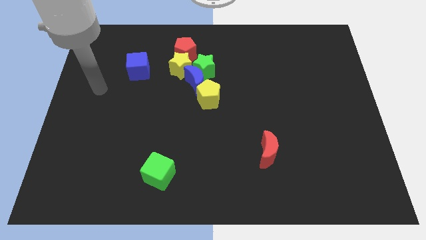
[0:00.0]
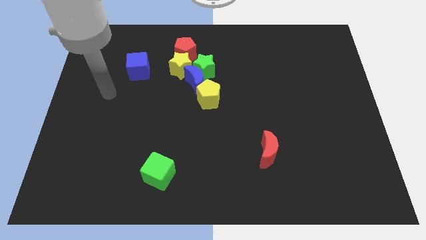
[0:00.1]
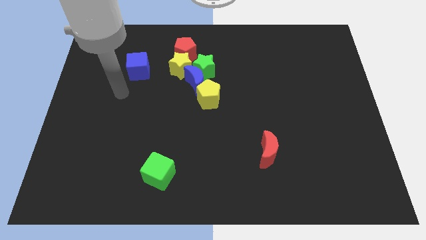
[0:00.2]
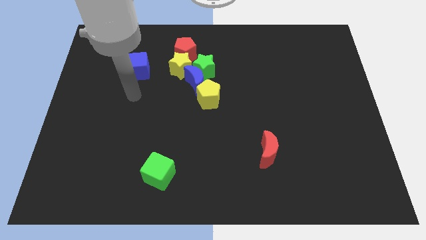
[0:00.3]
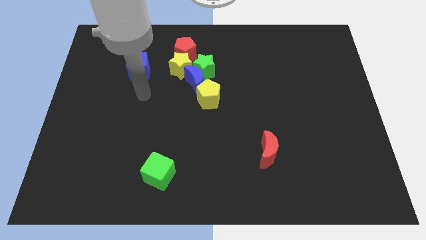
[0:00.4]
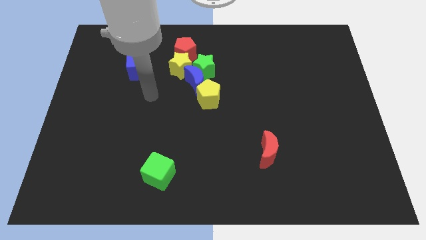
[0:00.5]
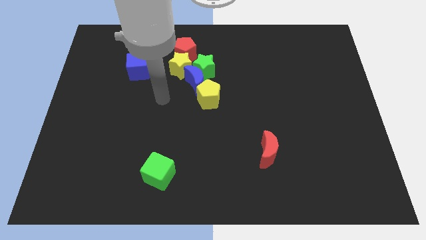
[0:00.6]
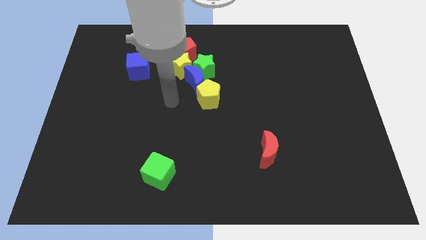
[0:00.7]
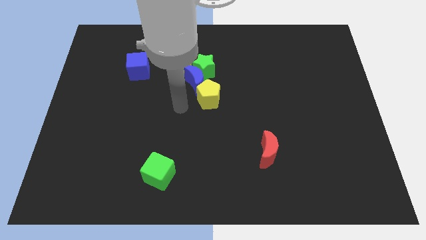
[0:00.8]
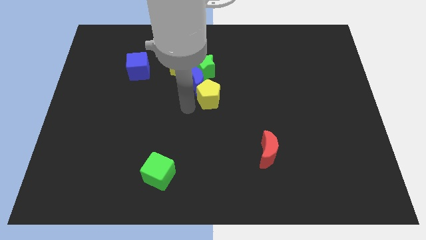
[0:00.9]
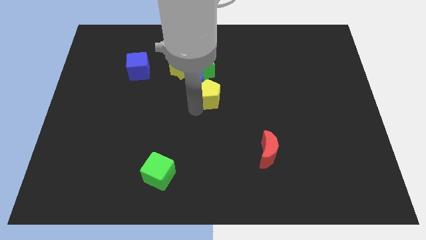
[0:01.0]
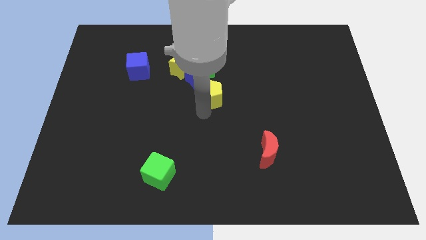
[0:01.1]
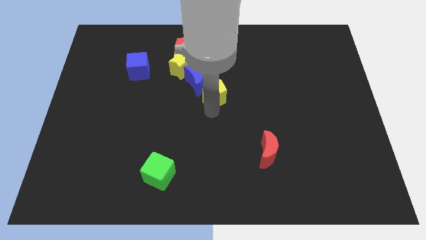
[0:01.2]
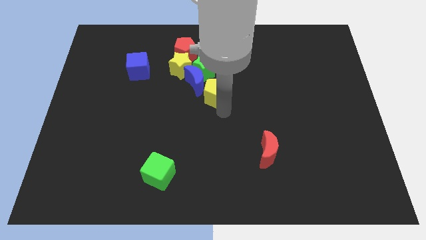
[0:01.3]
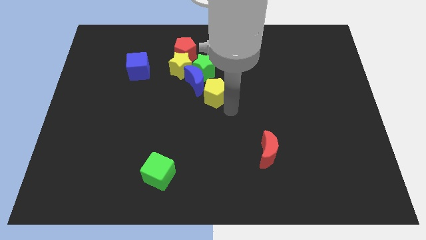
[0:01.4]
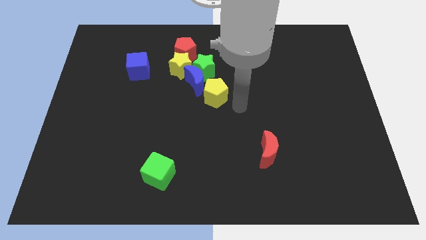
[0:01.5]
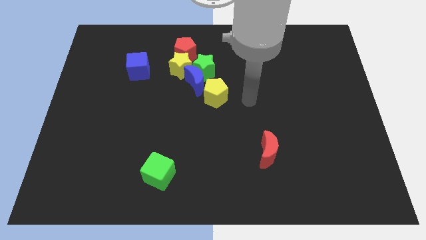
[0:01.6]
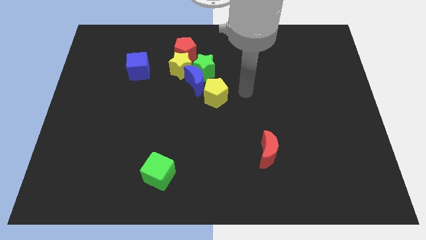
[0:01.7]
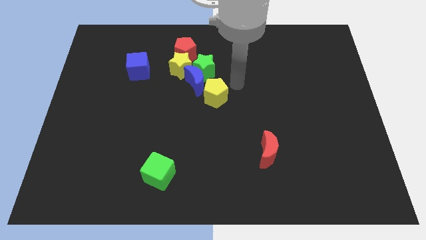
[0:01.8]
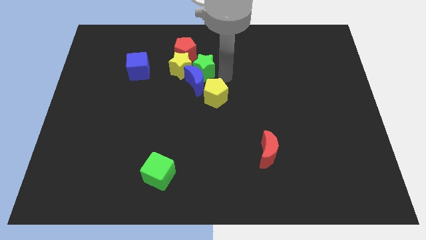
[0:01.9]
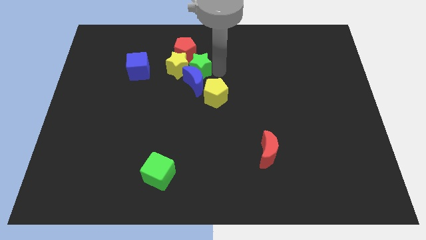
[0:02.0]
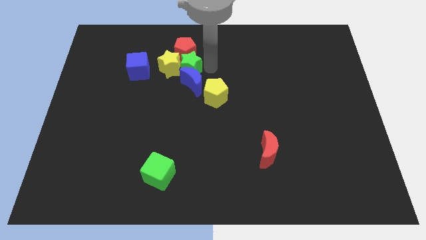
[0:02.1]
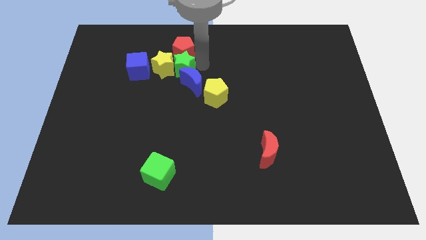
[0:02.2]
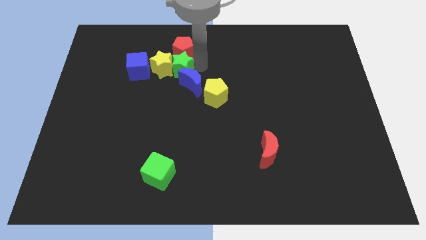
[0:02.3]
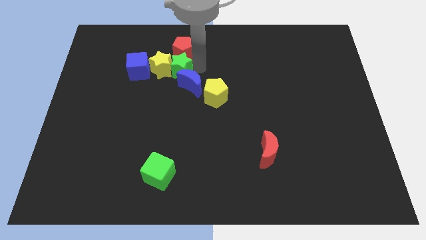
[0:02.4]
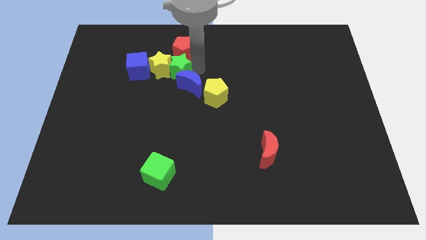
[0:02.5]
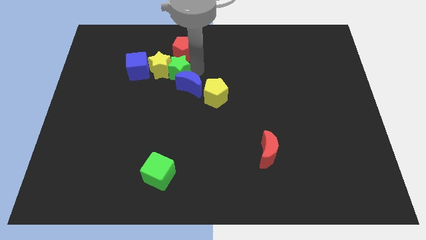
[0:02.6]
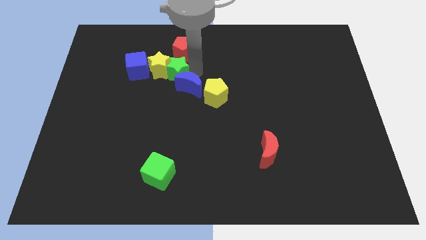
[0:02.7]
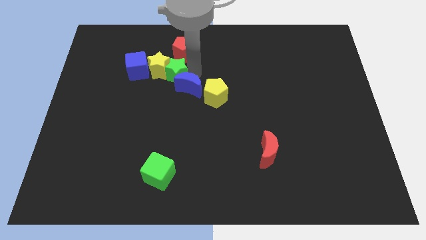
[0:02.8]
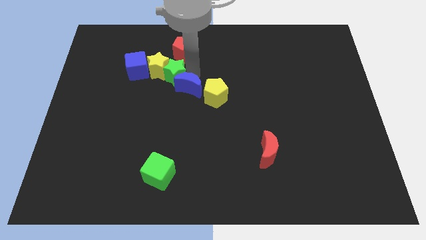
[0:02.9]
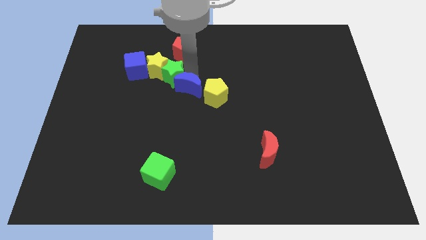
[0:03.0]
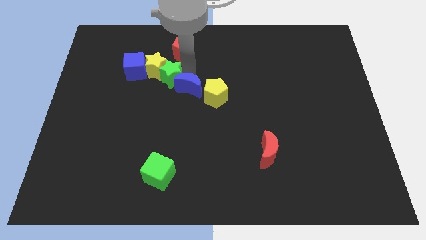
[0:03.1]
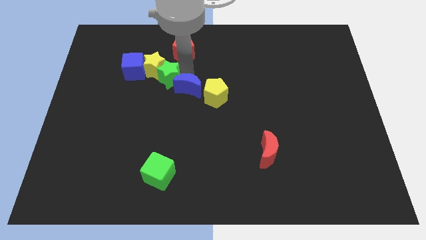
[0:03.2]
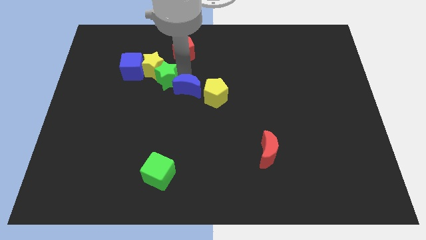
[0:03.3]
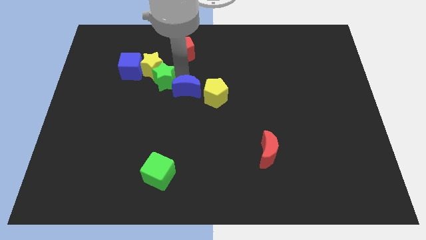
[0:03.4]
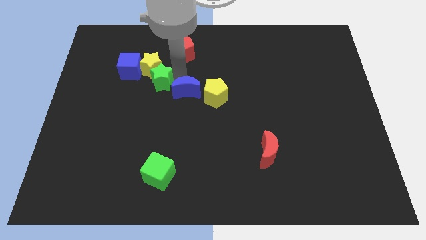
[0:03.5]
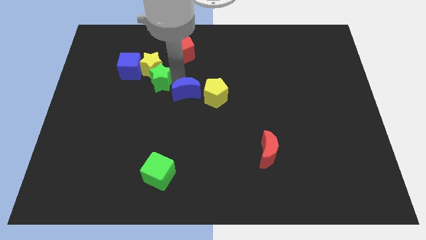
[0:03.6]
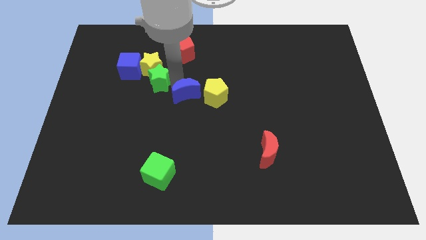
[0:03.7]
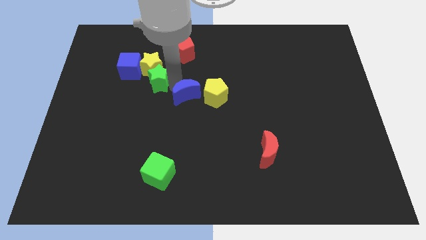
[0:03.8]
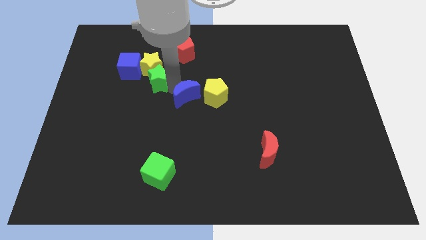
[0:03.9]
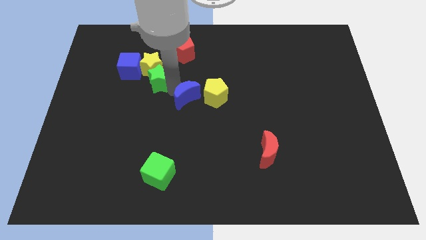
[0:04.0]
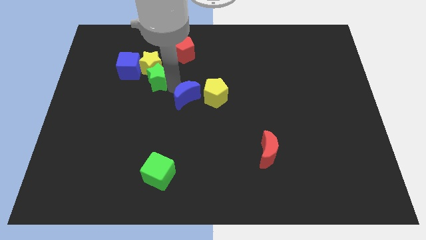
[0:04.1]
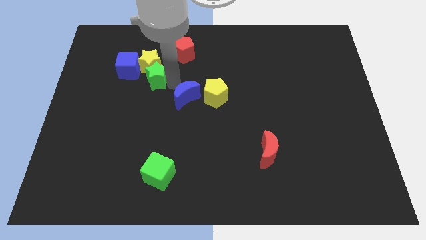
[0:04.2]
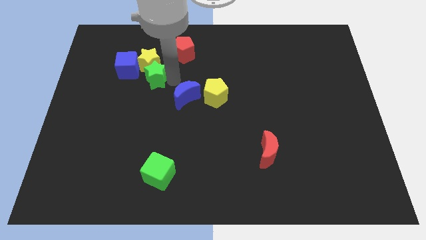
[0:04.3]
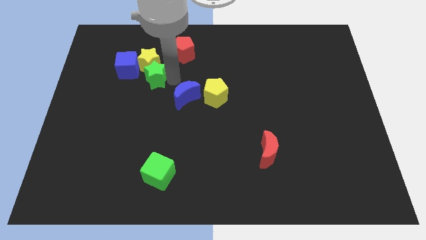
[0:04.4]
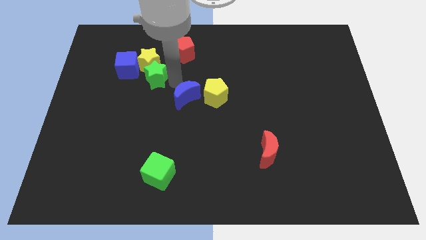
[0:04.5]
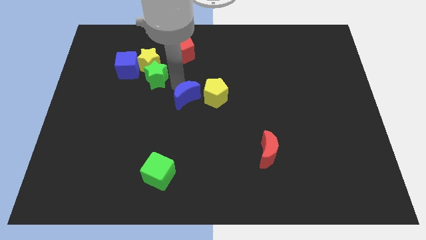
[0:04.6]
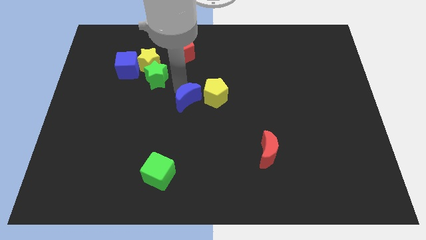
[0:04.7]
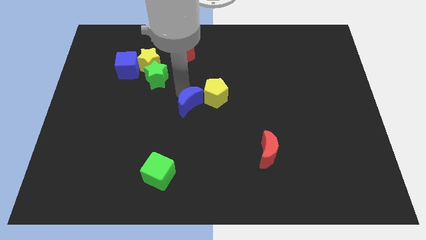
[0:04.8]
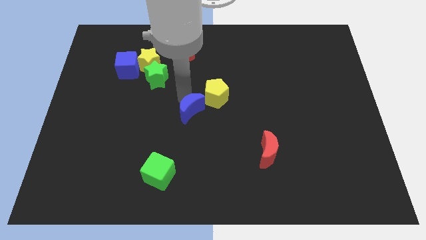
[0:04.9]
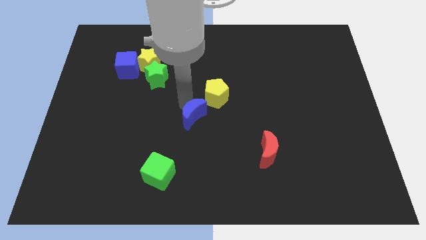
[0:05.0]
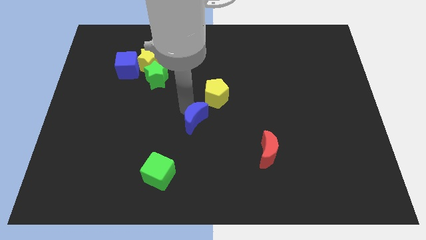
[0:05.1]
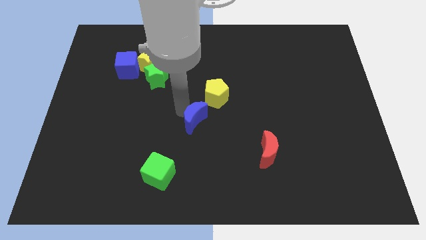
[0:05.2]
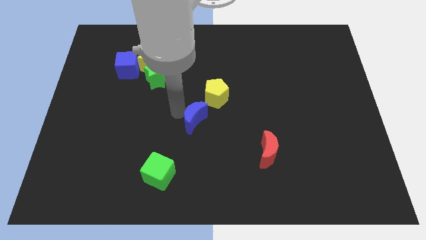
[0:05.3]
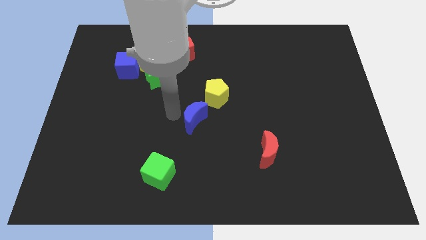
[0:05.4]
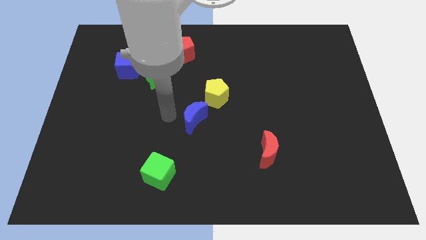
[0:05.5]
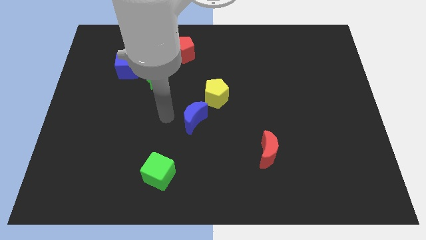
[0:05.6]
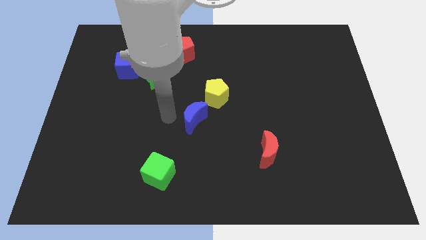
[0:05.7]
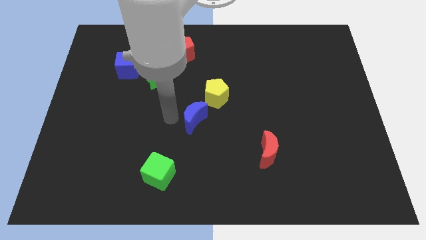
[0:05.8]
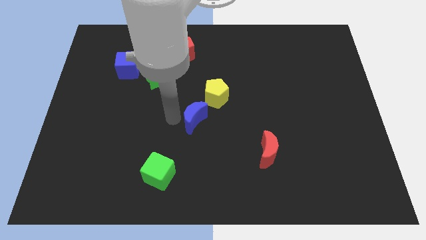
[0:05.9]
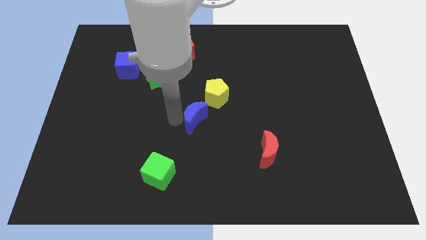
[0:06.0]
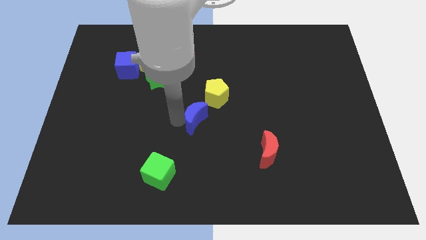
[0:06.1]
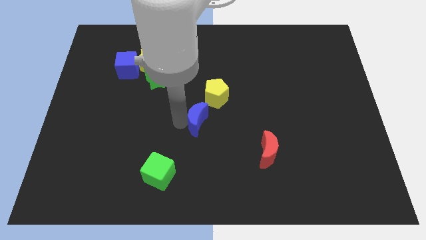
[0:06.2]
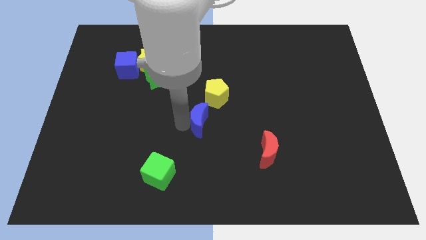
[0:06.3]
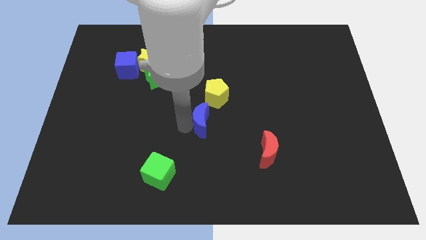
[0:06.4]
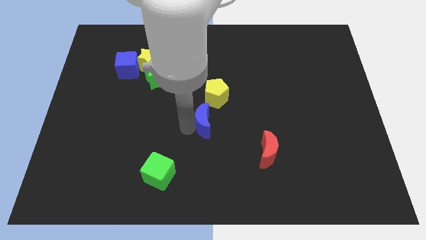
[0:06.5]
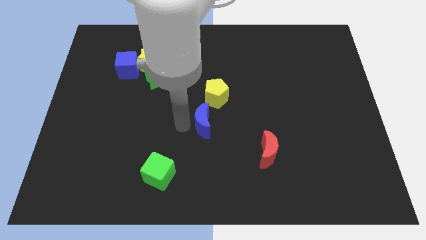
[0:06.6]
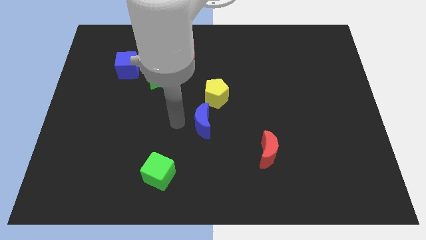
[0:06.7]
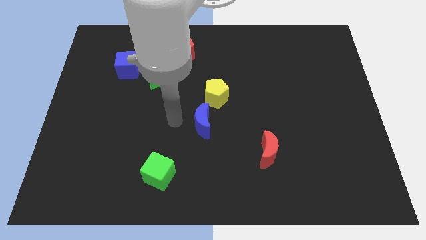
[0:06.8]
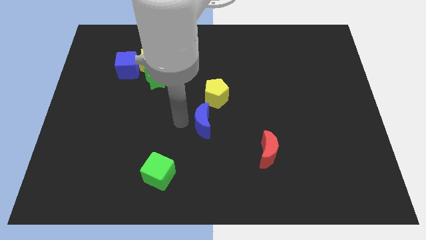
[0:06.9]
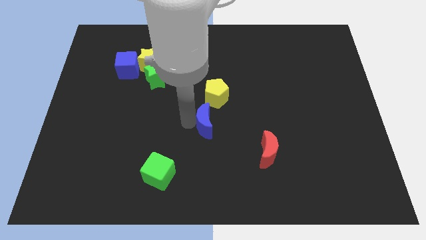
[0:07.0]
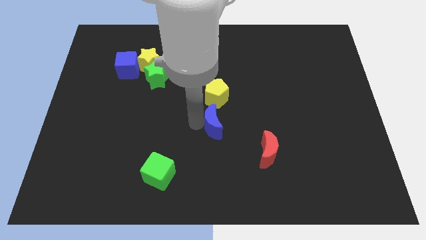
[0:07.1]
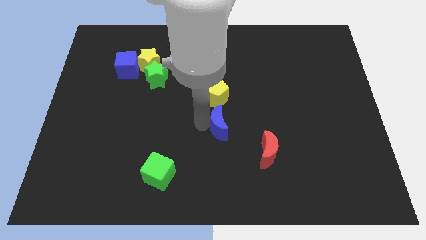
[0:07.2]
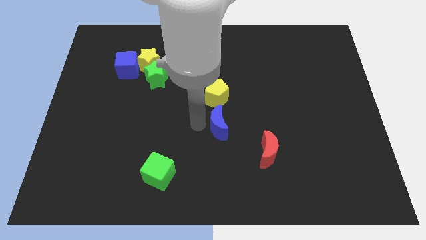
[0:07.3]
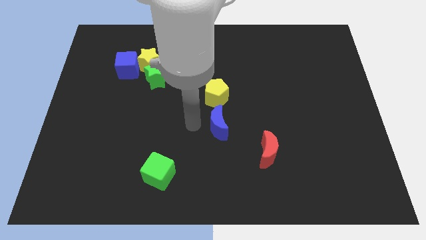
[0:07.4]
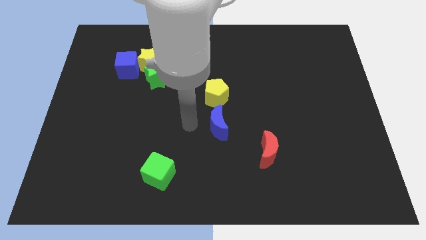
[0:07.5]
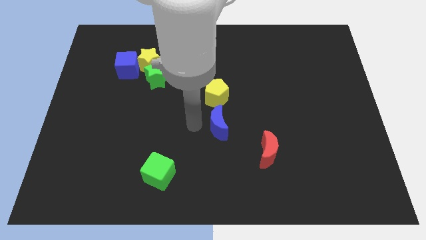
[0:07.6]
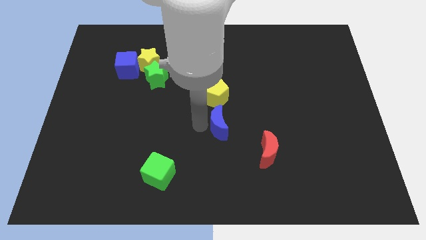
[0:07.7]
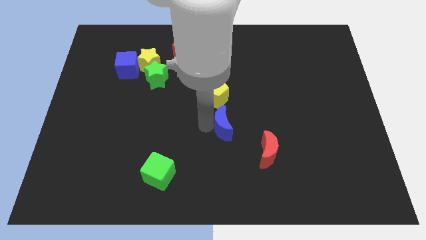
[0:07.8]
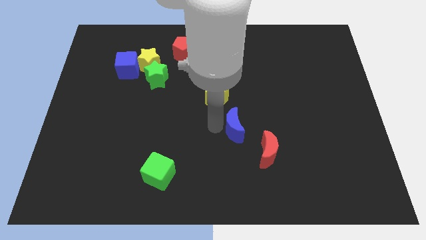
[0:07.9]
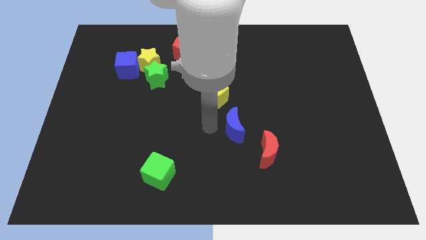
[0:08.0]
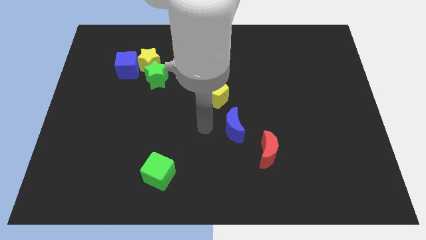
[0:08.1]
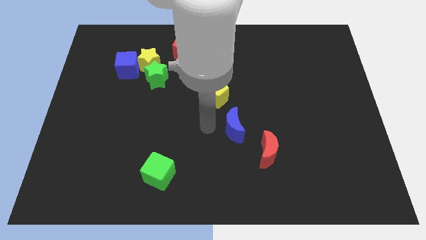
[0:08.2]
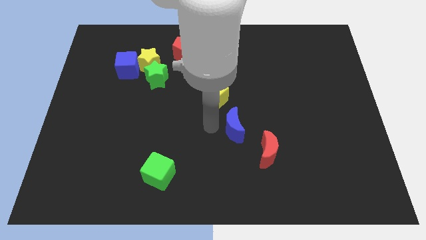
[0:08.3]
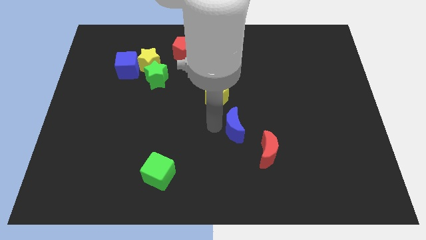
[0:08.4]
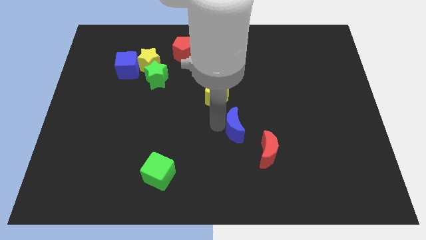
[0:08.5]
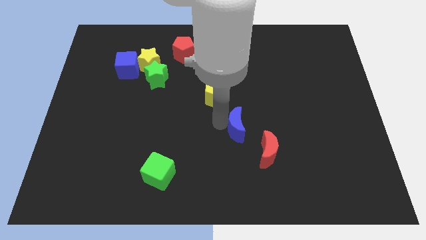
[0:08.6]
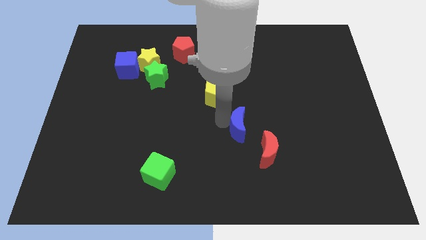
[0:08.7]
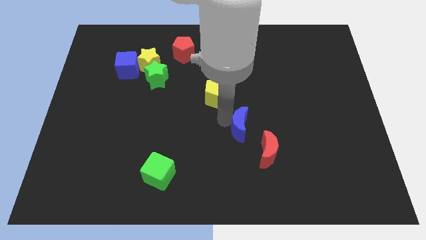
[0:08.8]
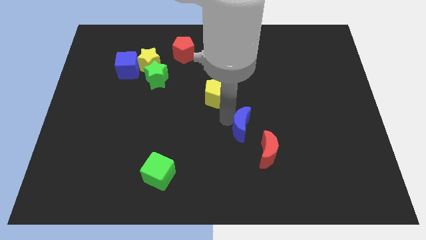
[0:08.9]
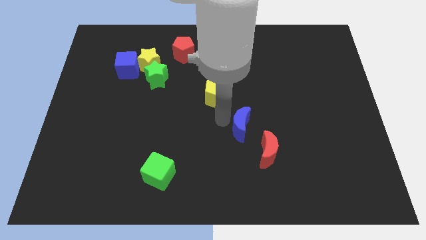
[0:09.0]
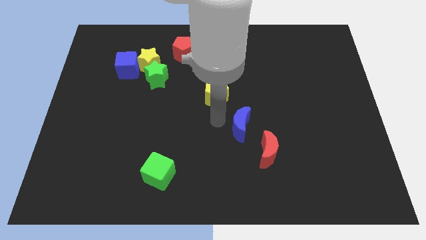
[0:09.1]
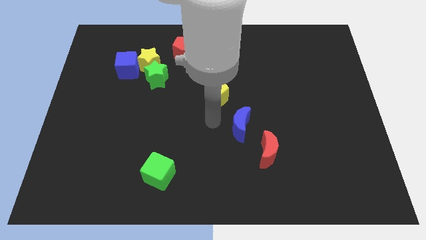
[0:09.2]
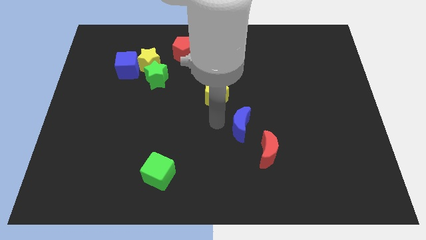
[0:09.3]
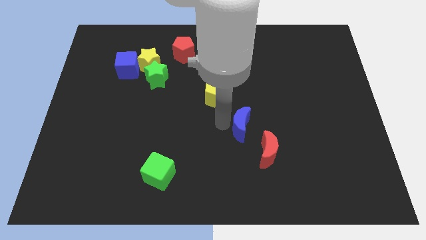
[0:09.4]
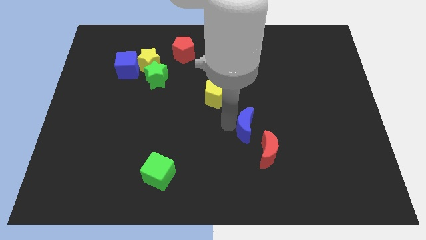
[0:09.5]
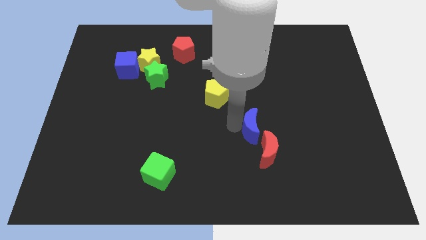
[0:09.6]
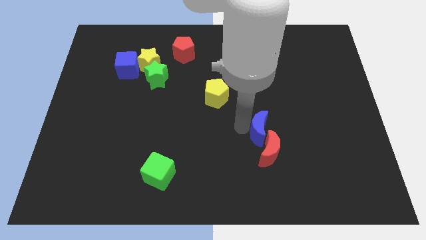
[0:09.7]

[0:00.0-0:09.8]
push the blue moon down and then to the right
